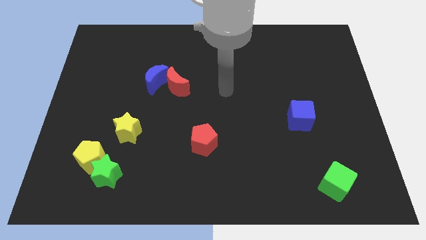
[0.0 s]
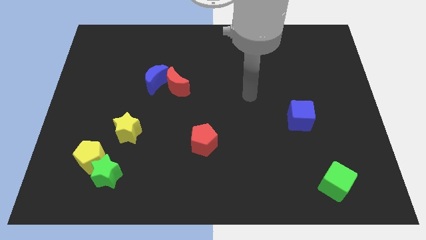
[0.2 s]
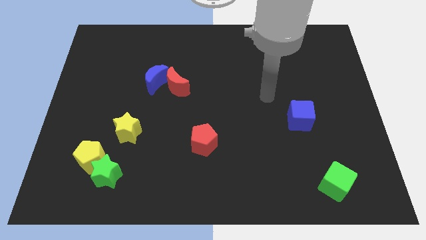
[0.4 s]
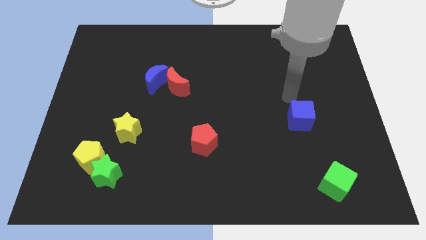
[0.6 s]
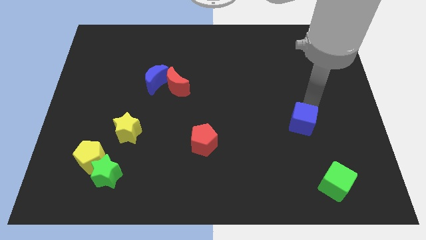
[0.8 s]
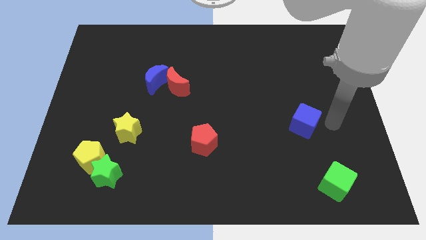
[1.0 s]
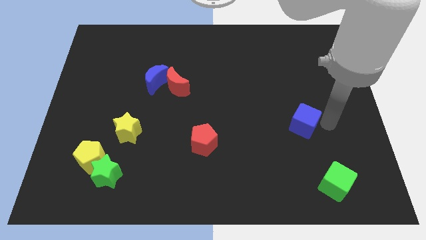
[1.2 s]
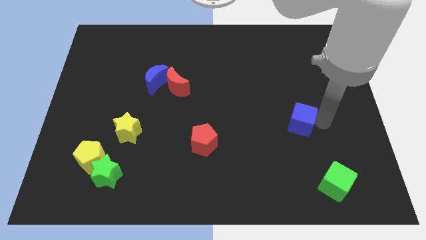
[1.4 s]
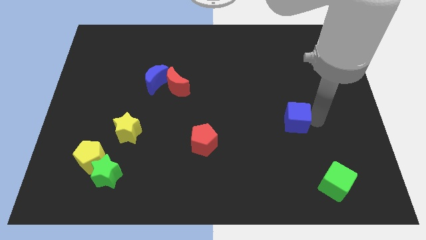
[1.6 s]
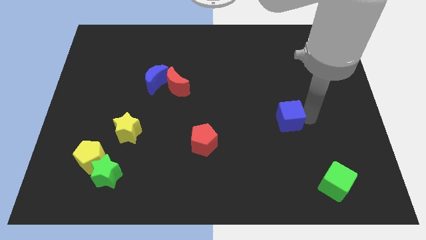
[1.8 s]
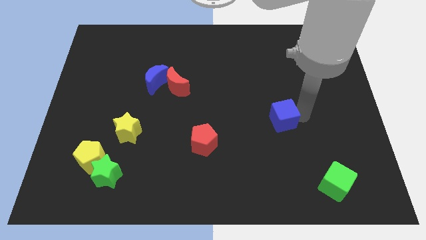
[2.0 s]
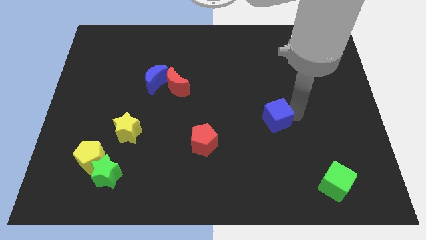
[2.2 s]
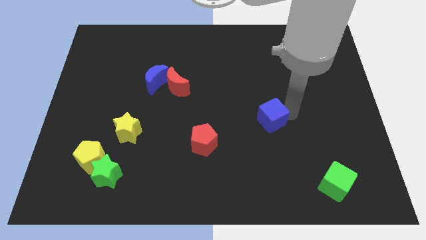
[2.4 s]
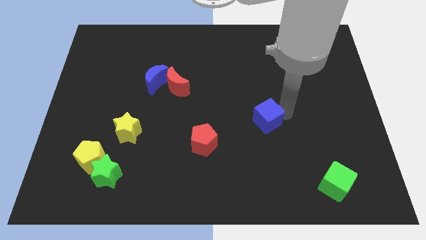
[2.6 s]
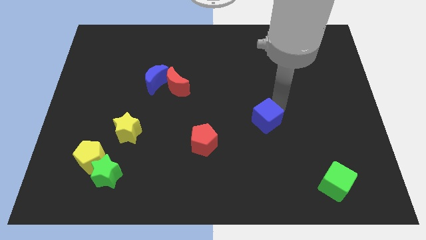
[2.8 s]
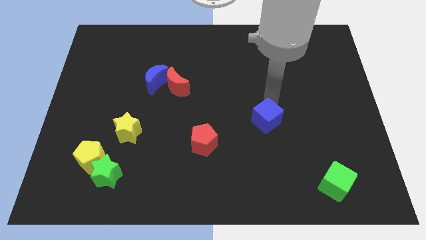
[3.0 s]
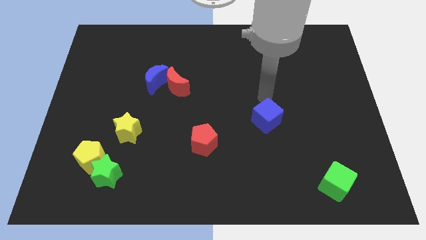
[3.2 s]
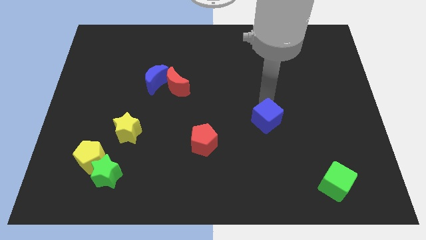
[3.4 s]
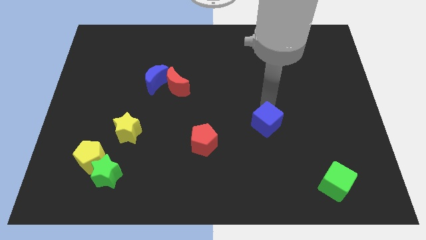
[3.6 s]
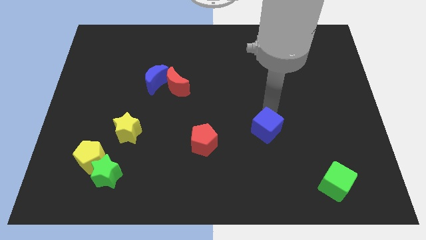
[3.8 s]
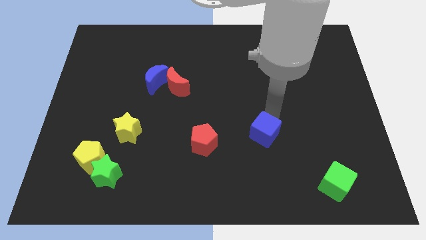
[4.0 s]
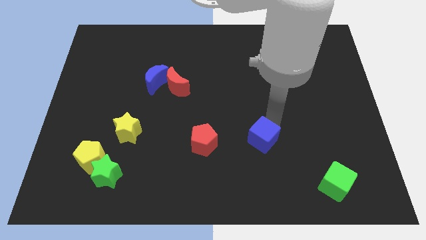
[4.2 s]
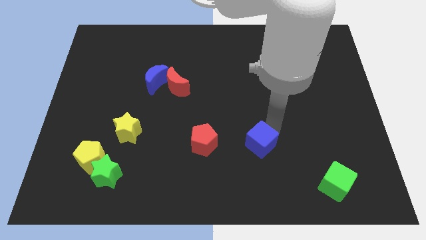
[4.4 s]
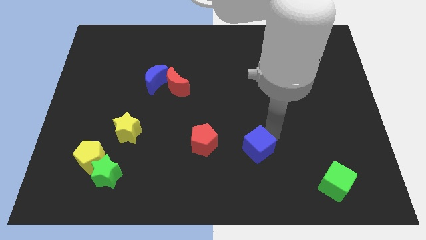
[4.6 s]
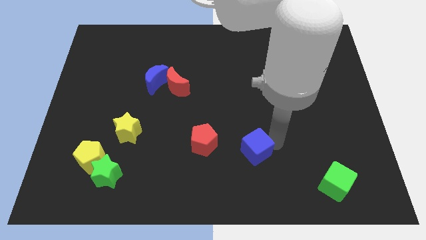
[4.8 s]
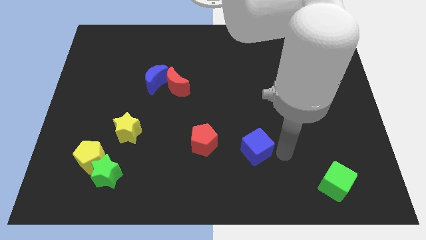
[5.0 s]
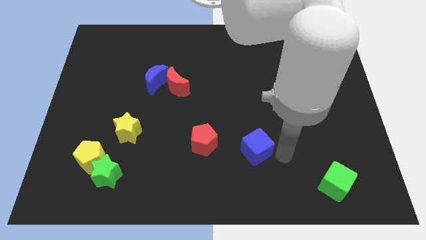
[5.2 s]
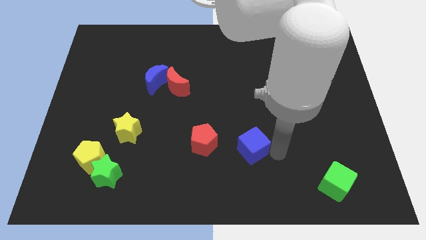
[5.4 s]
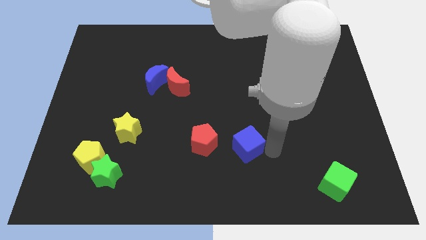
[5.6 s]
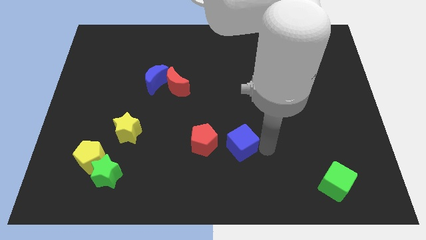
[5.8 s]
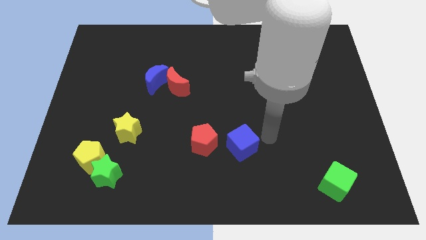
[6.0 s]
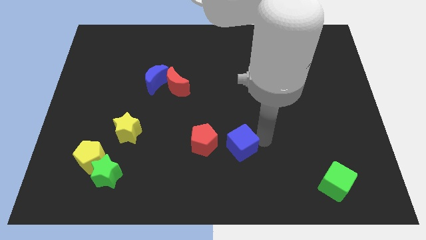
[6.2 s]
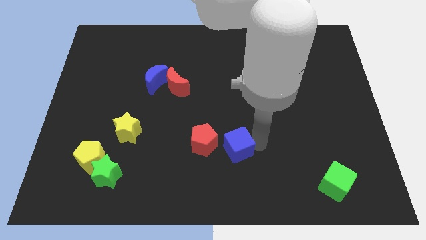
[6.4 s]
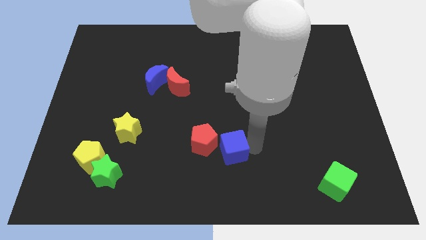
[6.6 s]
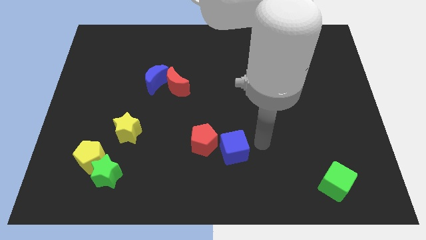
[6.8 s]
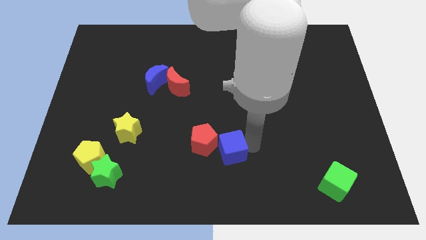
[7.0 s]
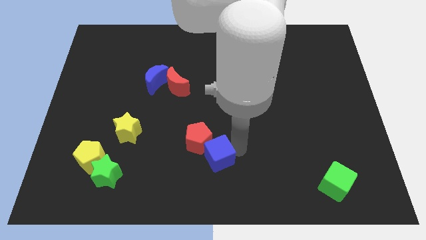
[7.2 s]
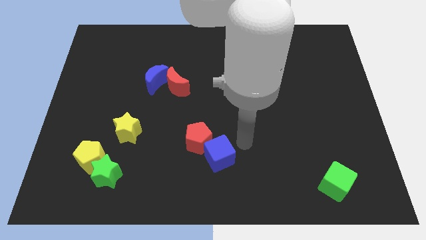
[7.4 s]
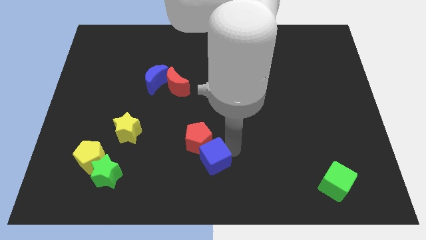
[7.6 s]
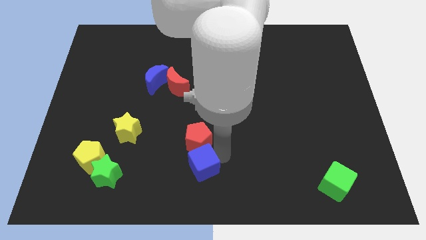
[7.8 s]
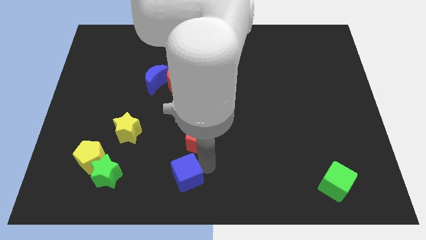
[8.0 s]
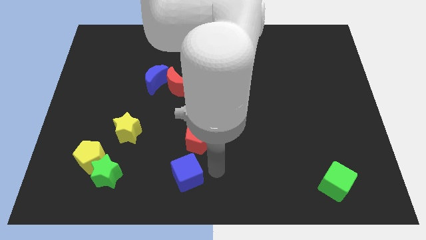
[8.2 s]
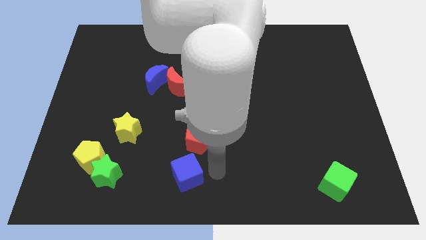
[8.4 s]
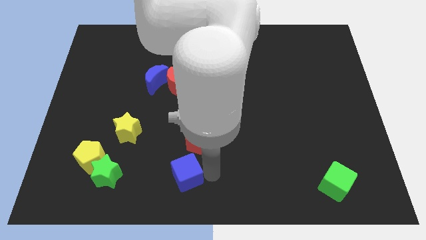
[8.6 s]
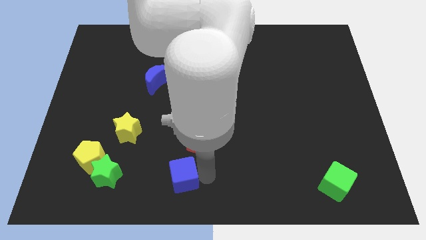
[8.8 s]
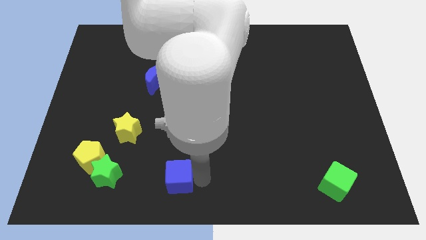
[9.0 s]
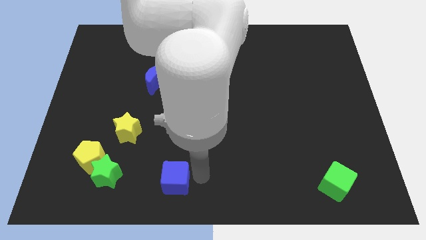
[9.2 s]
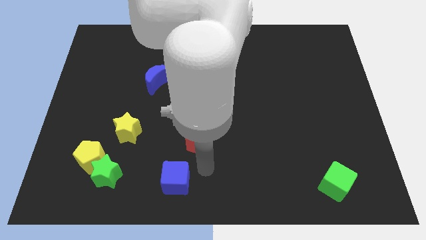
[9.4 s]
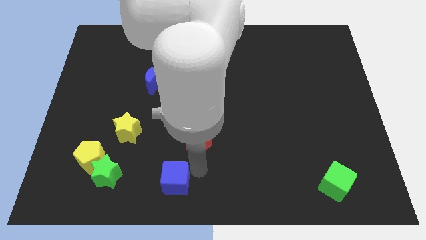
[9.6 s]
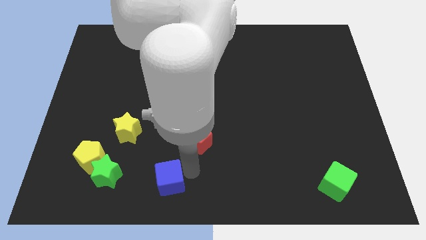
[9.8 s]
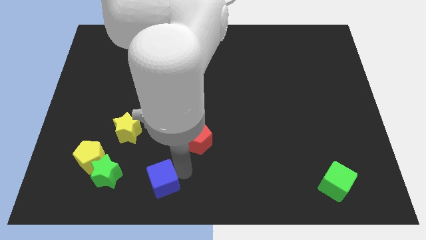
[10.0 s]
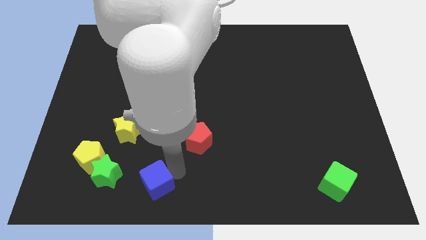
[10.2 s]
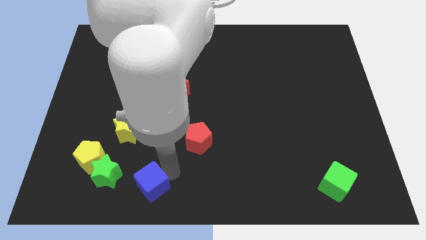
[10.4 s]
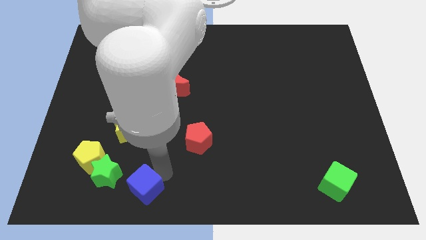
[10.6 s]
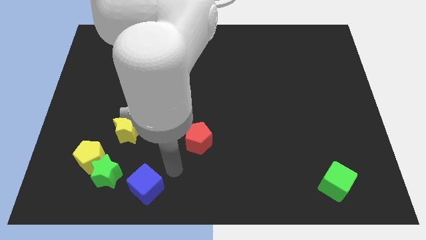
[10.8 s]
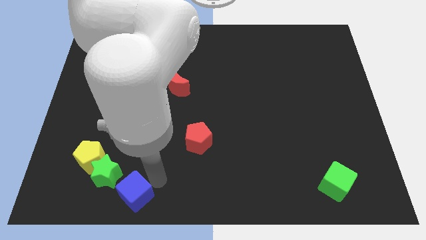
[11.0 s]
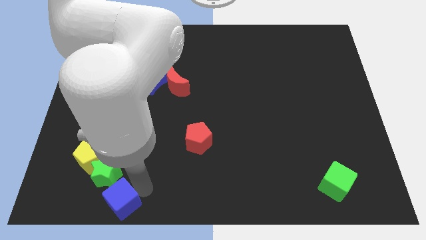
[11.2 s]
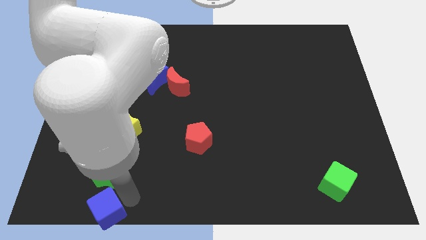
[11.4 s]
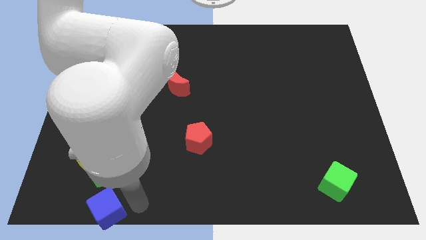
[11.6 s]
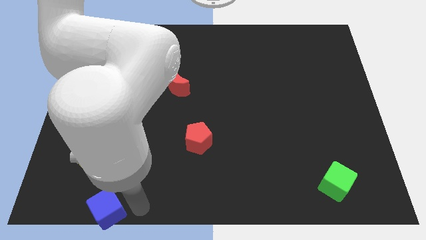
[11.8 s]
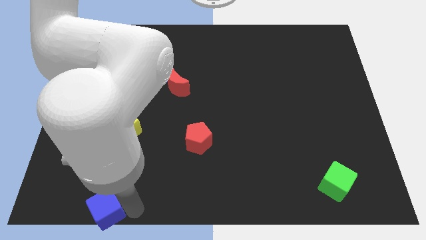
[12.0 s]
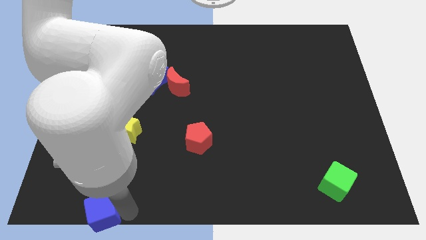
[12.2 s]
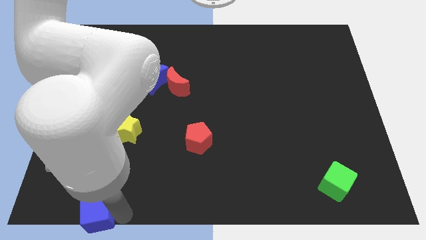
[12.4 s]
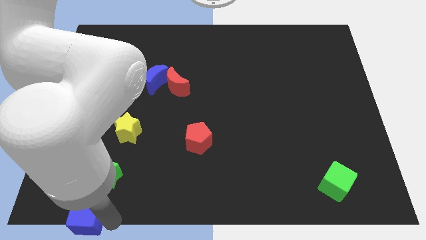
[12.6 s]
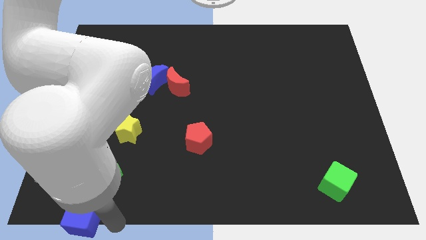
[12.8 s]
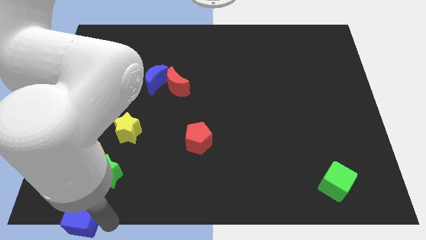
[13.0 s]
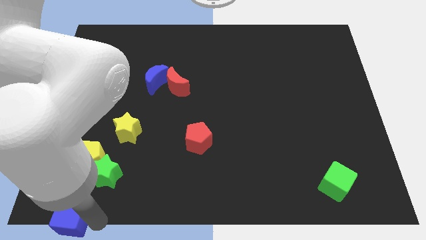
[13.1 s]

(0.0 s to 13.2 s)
push the blue cube to the bottom left corner

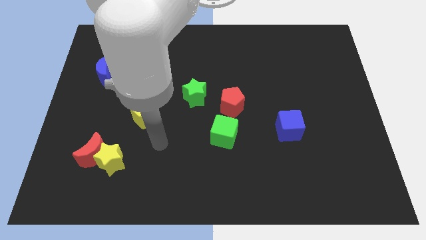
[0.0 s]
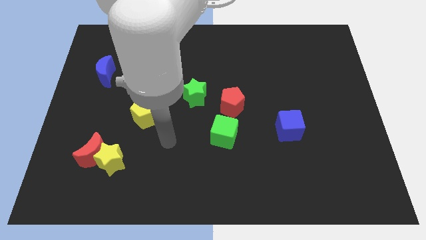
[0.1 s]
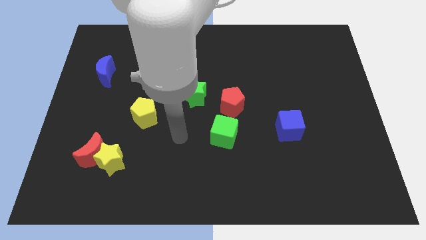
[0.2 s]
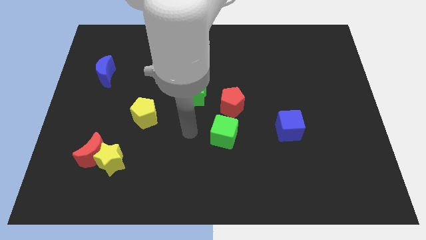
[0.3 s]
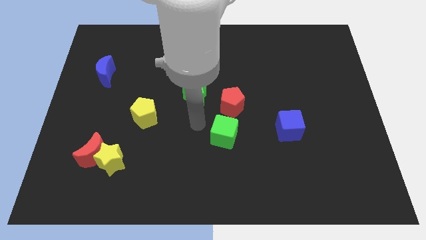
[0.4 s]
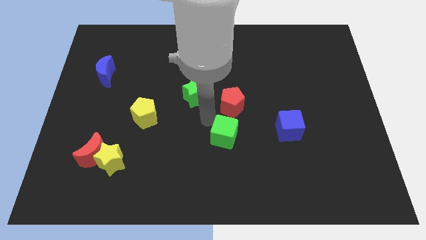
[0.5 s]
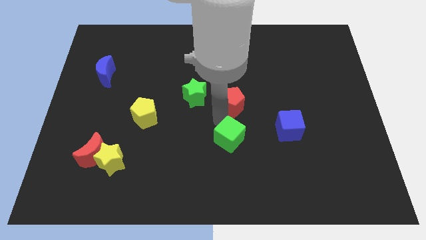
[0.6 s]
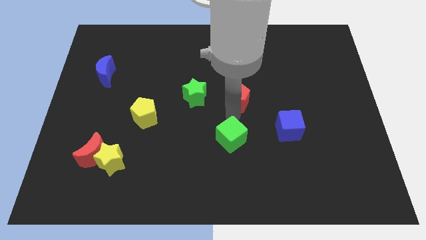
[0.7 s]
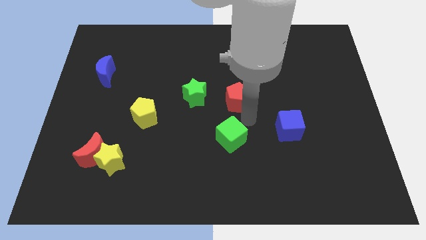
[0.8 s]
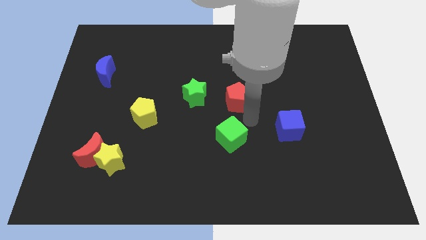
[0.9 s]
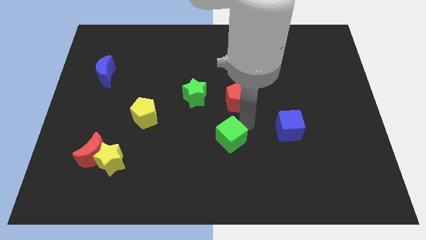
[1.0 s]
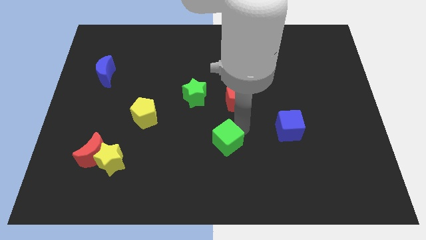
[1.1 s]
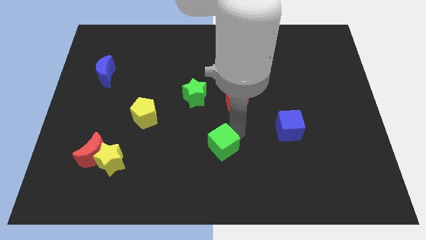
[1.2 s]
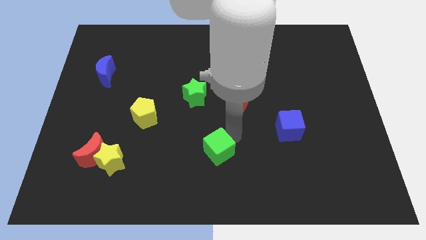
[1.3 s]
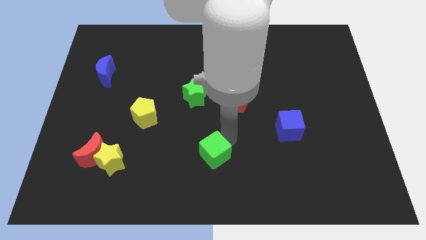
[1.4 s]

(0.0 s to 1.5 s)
push the green cube to the bottom side
